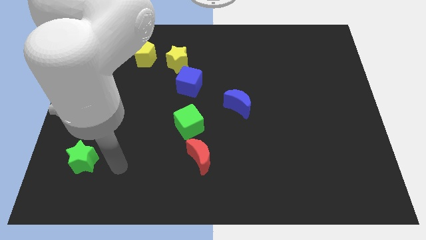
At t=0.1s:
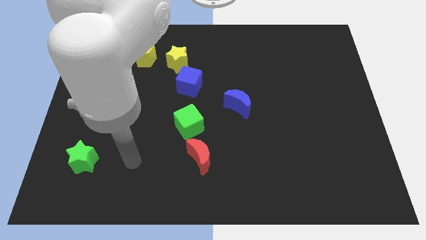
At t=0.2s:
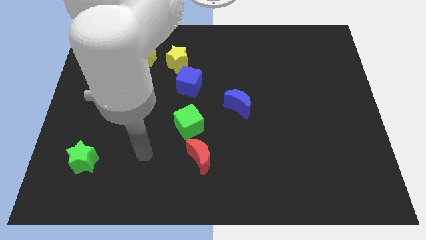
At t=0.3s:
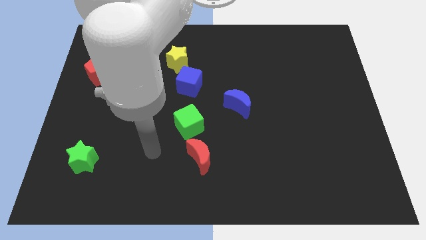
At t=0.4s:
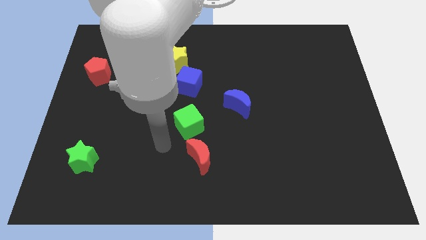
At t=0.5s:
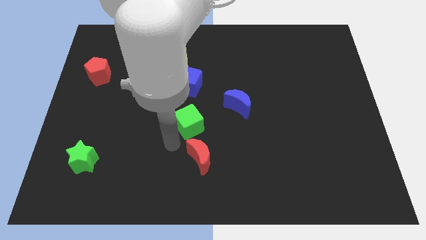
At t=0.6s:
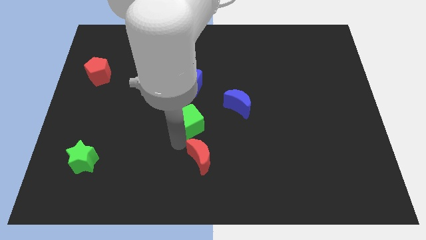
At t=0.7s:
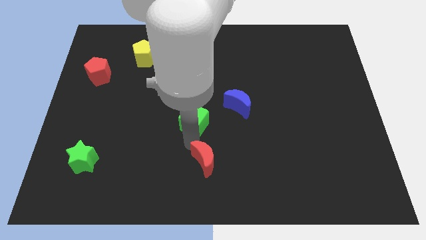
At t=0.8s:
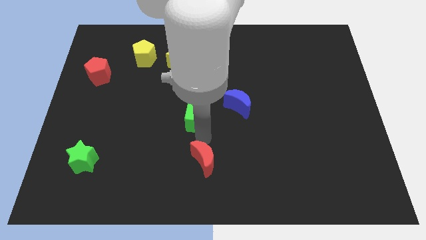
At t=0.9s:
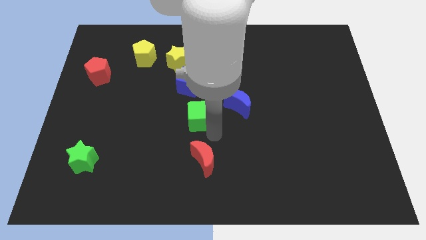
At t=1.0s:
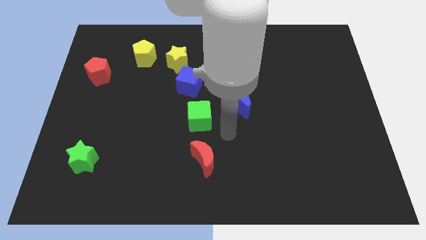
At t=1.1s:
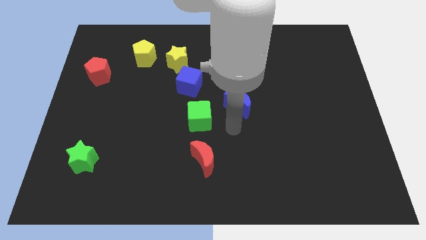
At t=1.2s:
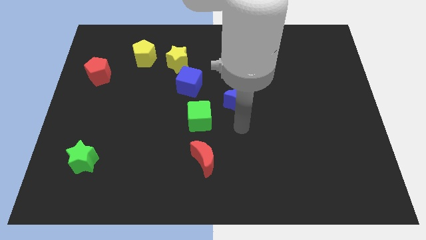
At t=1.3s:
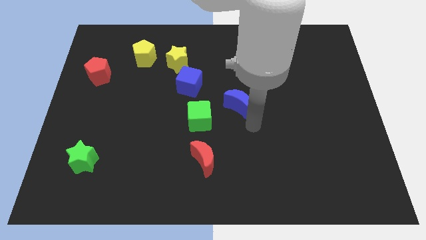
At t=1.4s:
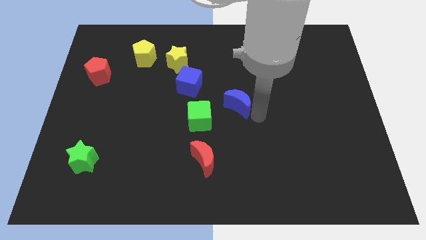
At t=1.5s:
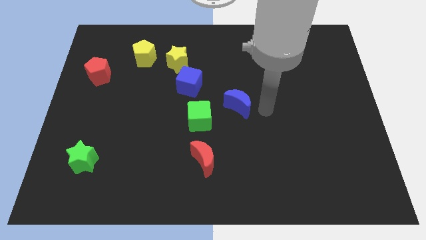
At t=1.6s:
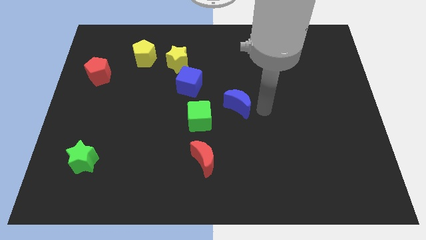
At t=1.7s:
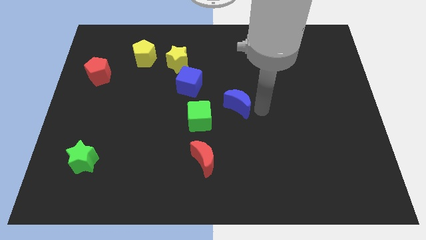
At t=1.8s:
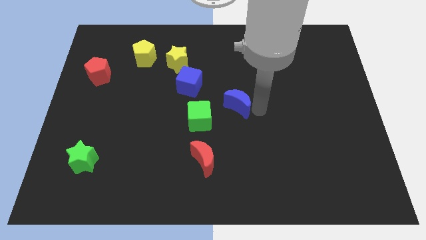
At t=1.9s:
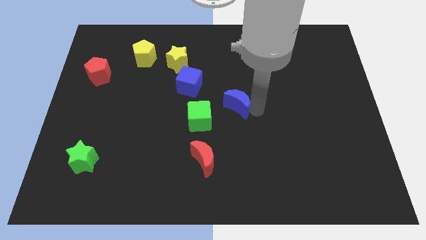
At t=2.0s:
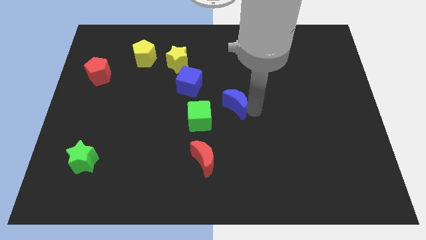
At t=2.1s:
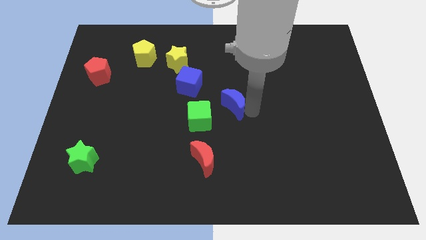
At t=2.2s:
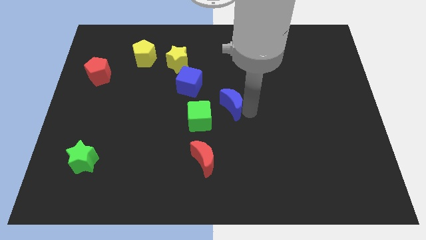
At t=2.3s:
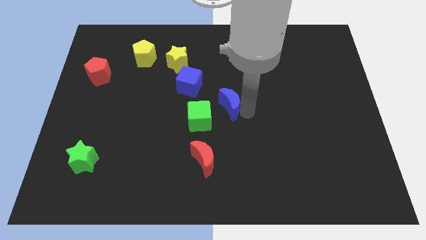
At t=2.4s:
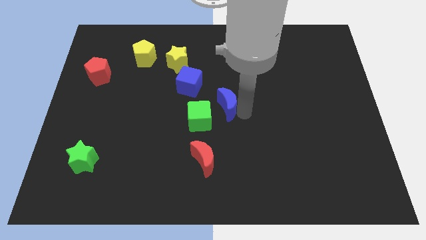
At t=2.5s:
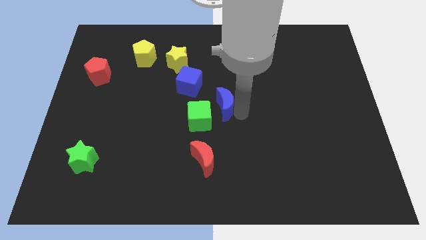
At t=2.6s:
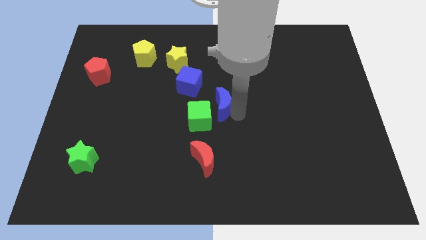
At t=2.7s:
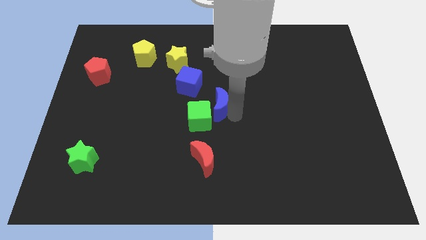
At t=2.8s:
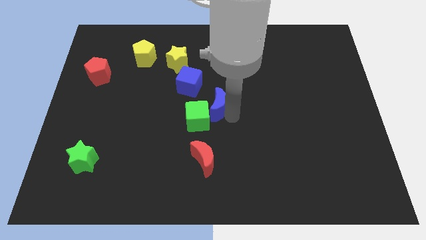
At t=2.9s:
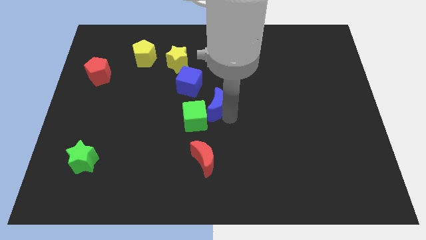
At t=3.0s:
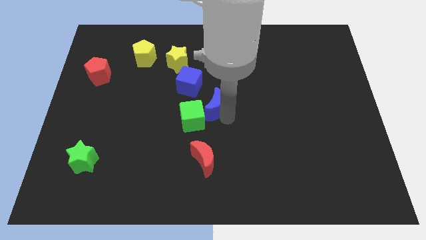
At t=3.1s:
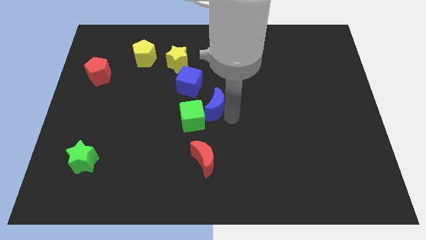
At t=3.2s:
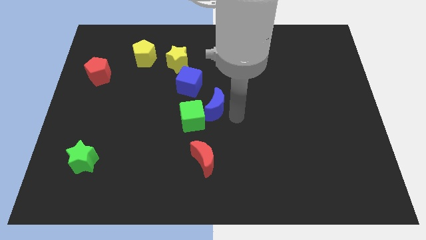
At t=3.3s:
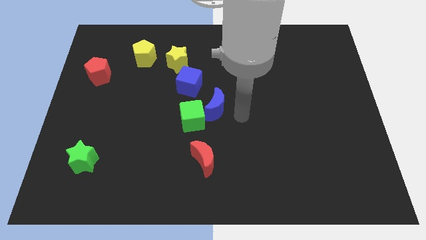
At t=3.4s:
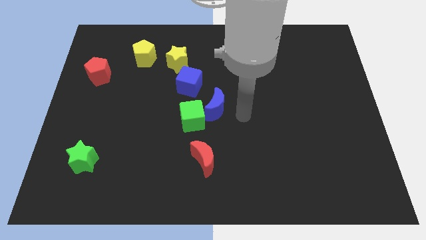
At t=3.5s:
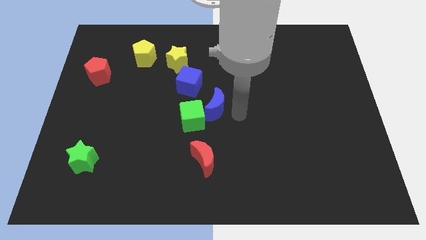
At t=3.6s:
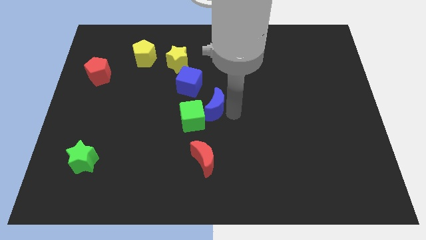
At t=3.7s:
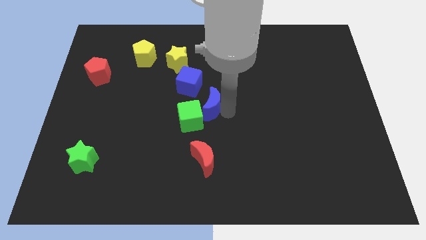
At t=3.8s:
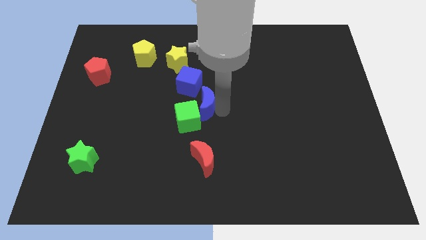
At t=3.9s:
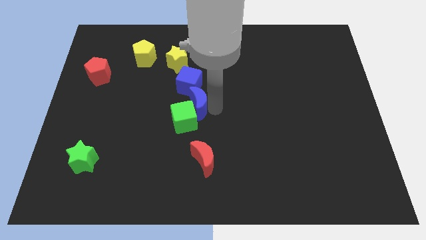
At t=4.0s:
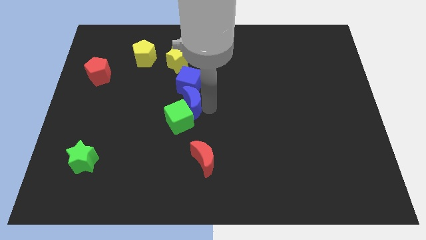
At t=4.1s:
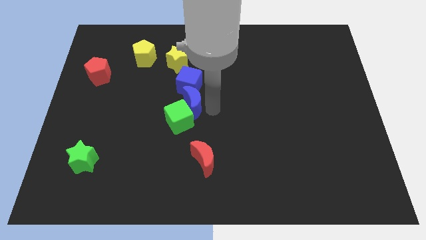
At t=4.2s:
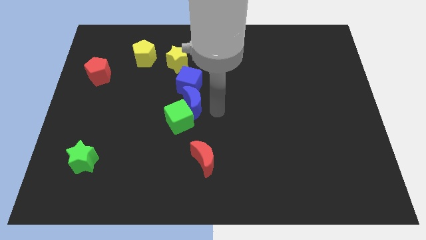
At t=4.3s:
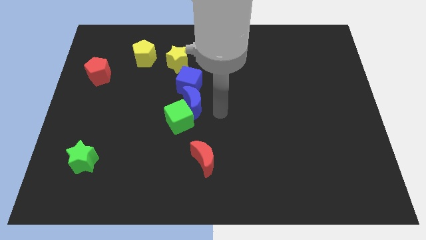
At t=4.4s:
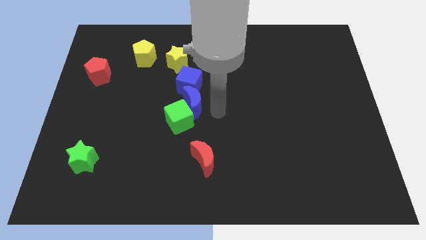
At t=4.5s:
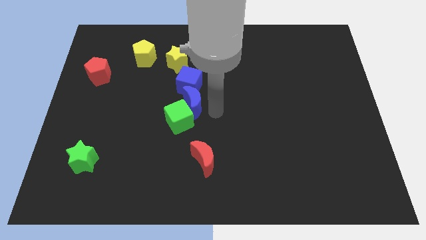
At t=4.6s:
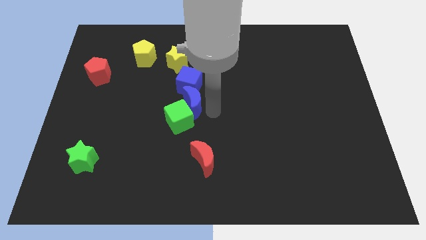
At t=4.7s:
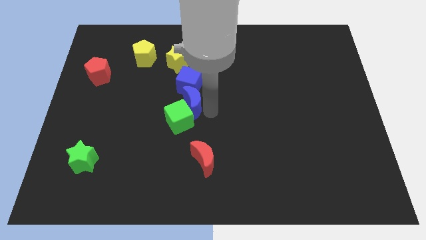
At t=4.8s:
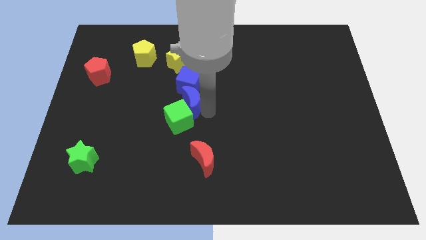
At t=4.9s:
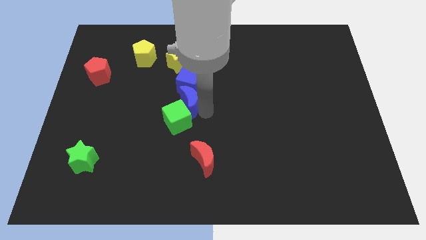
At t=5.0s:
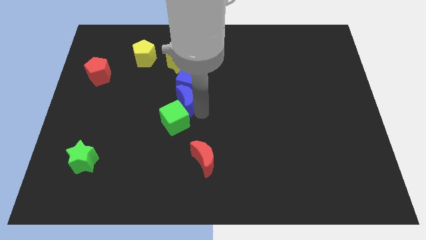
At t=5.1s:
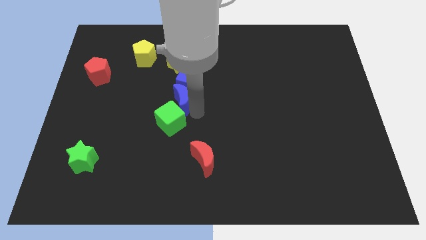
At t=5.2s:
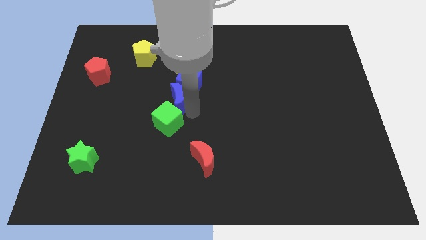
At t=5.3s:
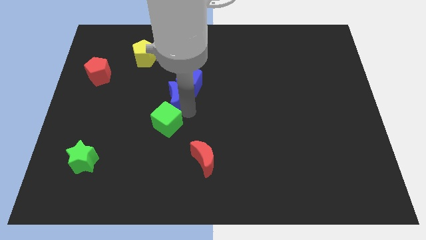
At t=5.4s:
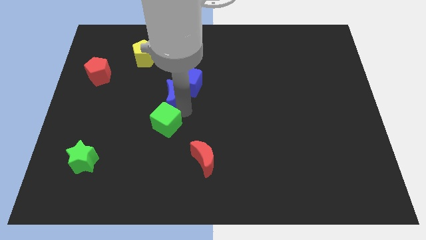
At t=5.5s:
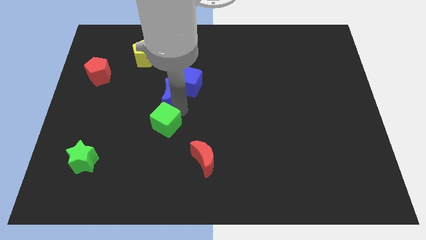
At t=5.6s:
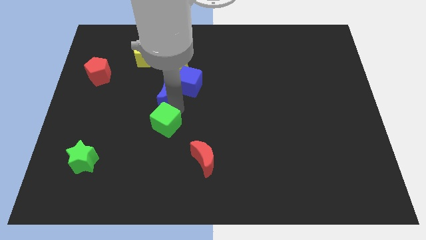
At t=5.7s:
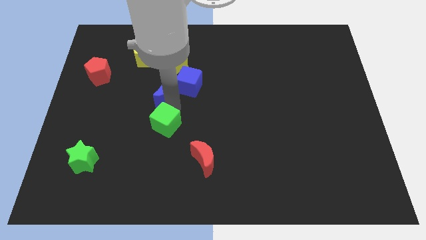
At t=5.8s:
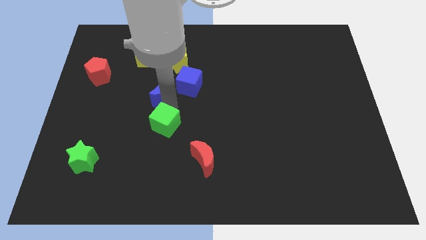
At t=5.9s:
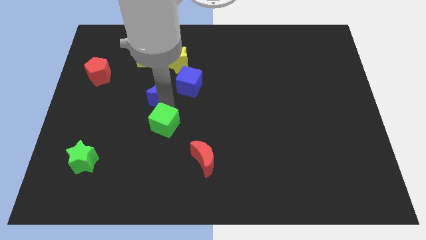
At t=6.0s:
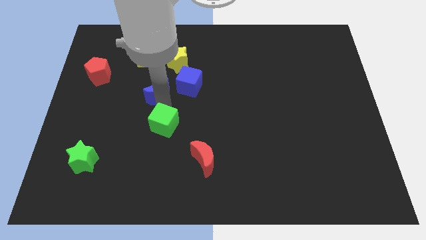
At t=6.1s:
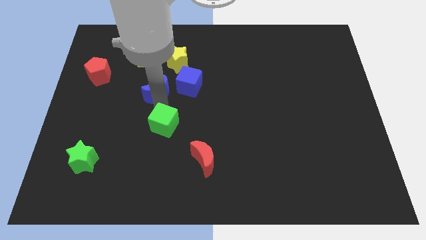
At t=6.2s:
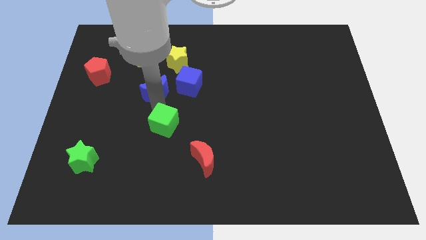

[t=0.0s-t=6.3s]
slide the blue moon diagonally down and to the left of the yellow star

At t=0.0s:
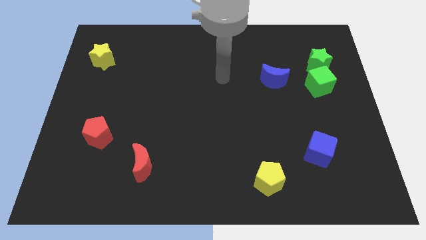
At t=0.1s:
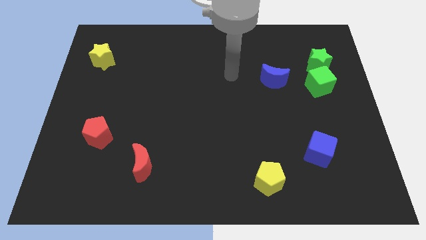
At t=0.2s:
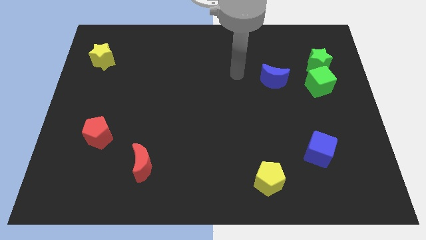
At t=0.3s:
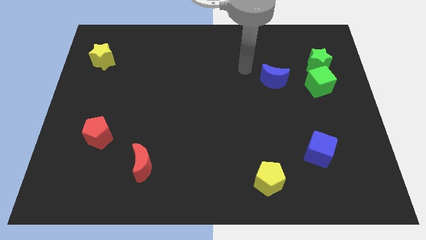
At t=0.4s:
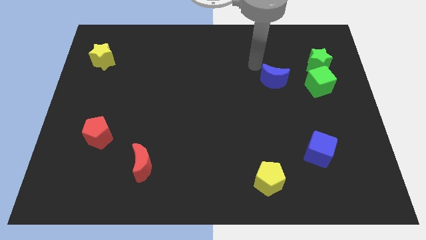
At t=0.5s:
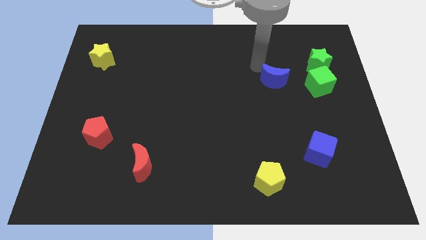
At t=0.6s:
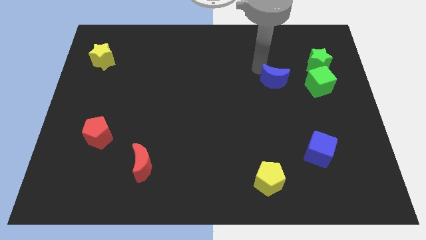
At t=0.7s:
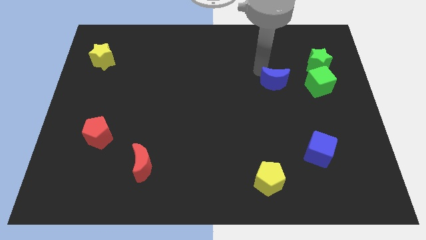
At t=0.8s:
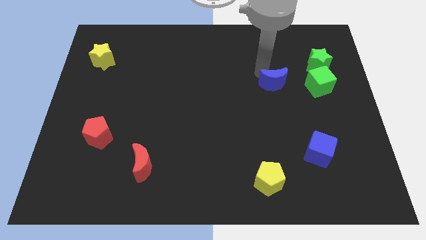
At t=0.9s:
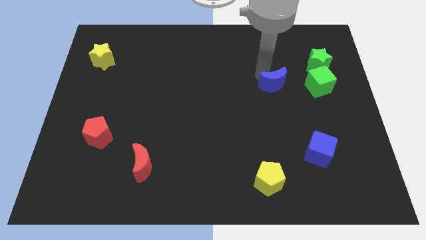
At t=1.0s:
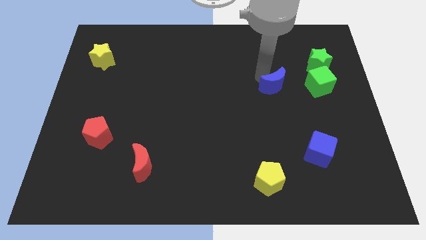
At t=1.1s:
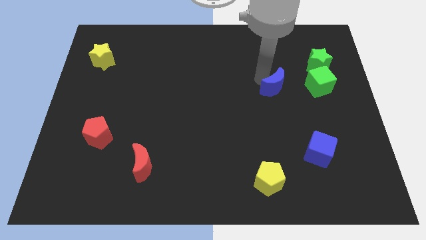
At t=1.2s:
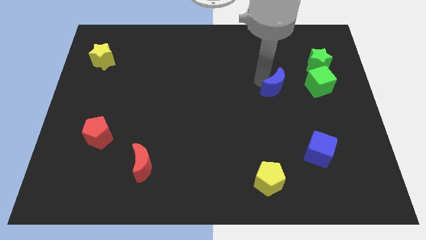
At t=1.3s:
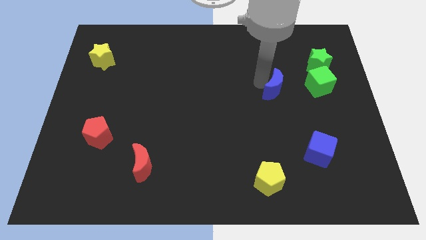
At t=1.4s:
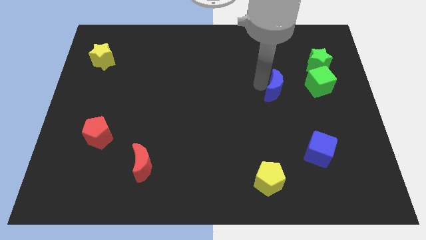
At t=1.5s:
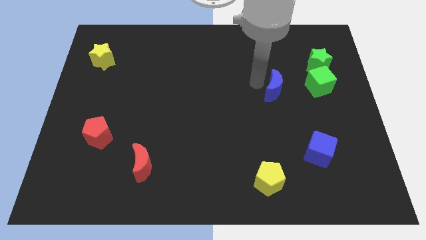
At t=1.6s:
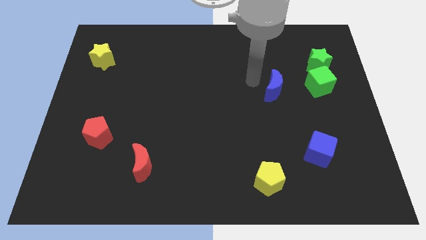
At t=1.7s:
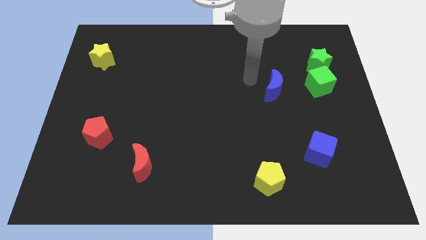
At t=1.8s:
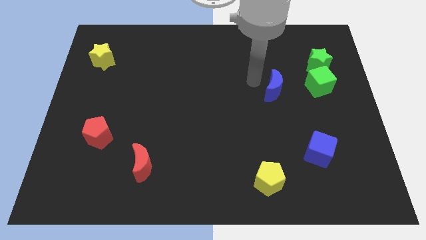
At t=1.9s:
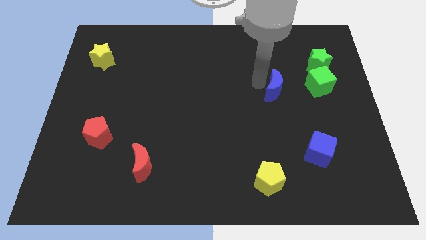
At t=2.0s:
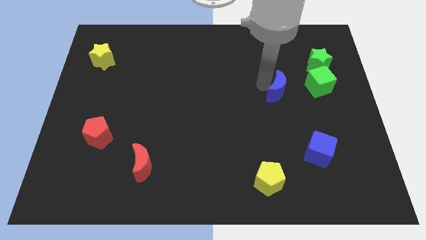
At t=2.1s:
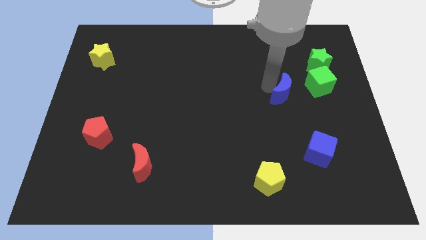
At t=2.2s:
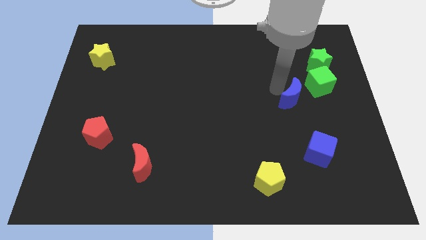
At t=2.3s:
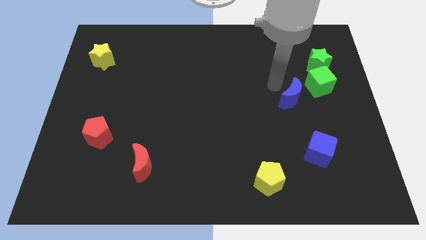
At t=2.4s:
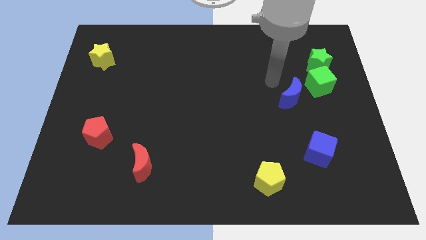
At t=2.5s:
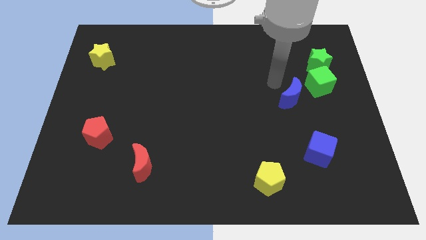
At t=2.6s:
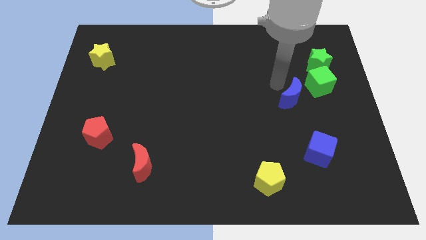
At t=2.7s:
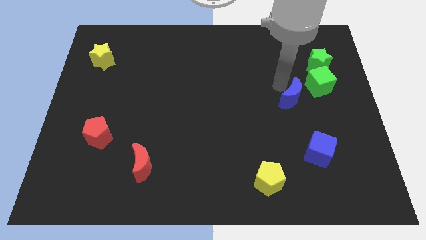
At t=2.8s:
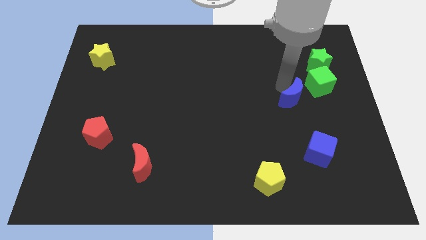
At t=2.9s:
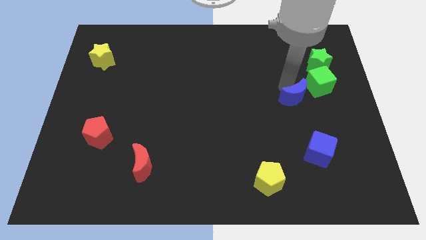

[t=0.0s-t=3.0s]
put the blue moon to the top of the blue cube
